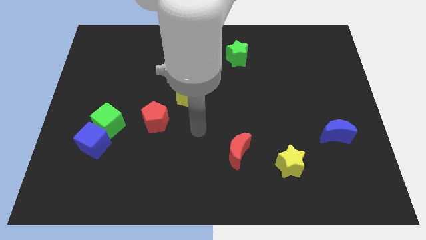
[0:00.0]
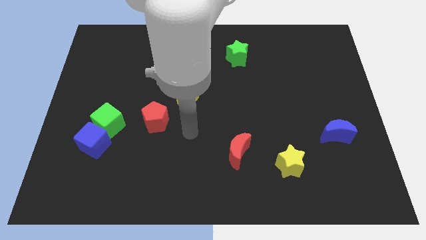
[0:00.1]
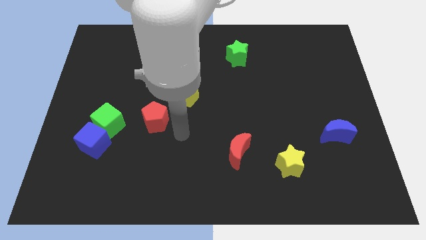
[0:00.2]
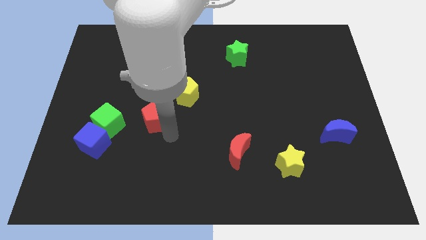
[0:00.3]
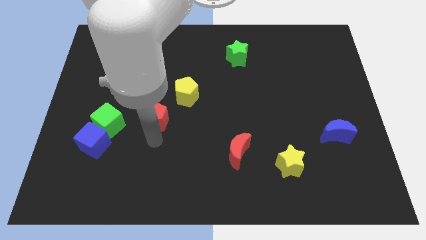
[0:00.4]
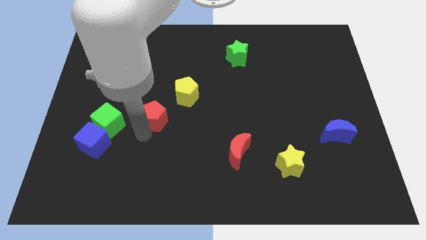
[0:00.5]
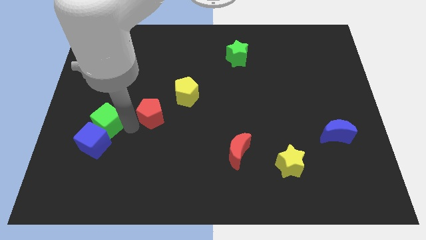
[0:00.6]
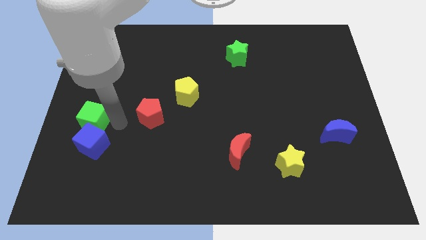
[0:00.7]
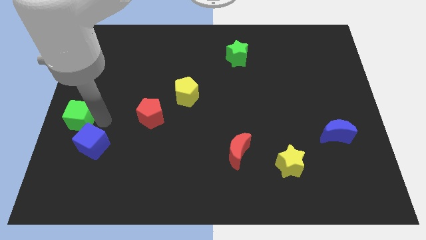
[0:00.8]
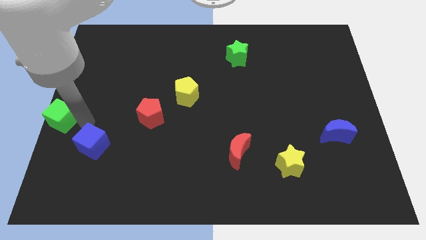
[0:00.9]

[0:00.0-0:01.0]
separate the blue cube from the green cube

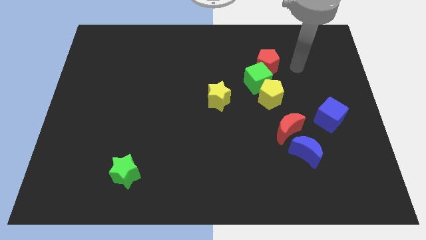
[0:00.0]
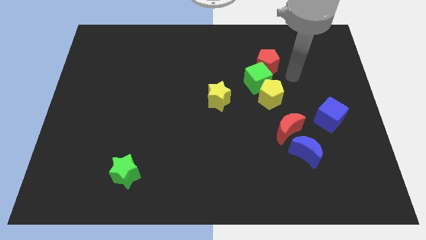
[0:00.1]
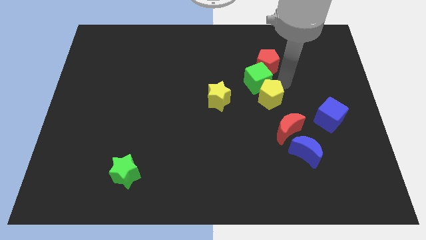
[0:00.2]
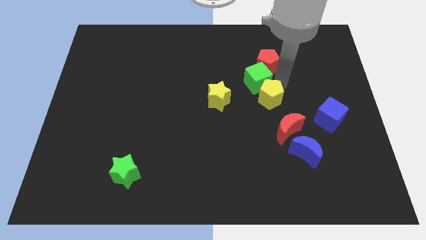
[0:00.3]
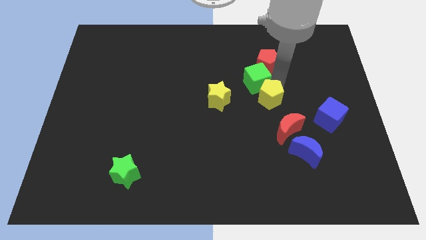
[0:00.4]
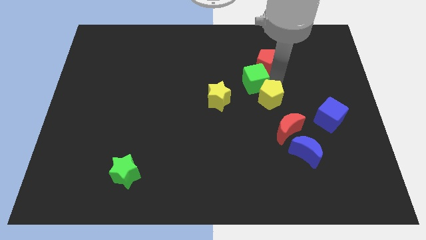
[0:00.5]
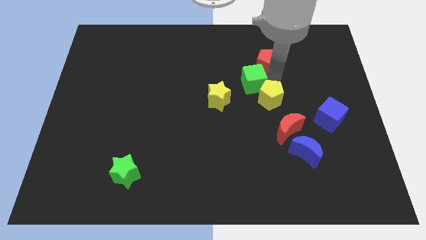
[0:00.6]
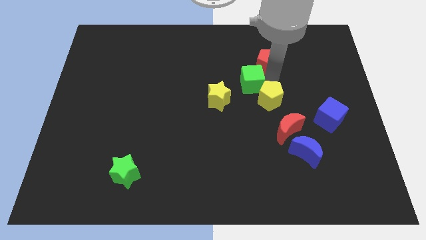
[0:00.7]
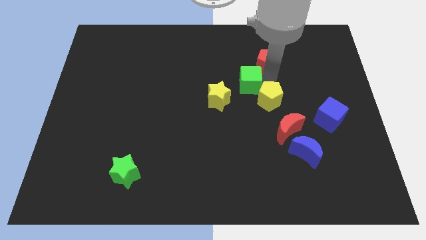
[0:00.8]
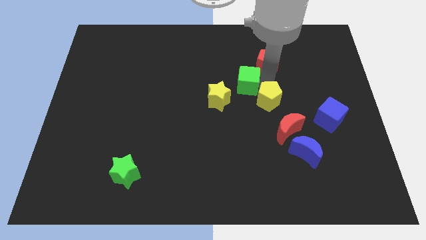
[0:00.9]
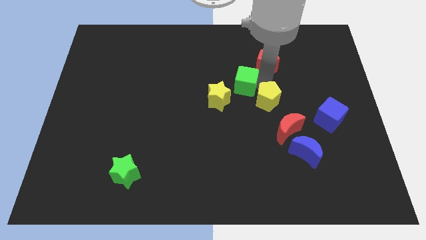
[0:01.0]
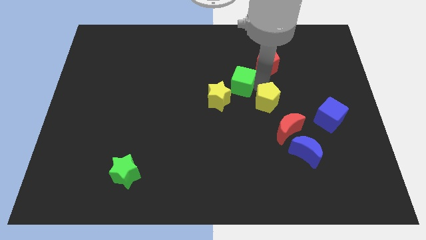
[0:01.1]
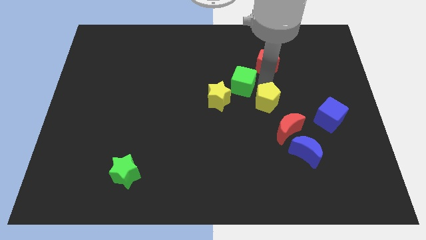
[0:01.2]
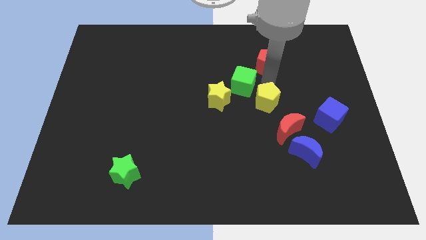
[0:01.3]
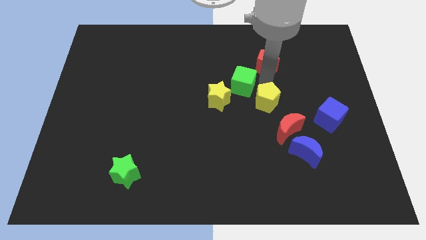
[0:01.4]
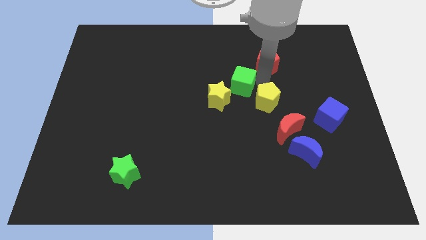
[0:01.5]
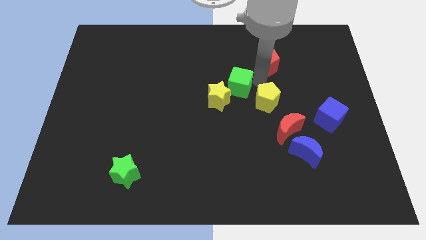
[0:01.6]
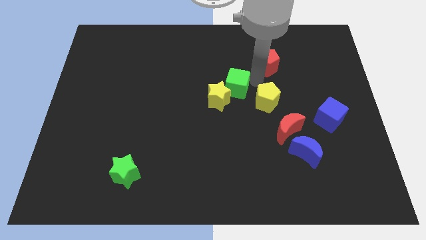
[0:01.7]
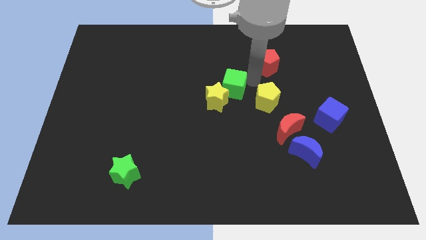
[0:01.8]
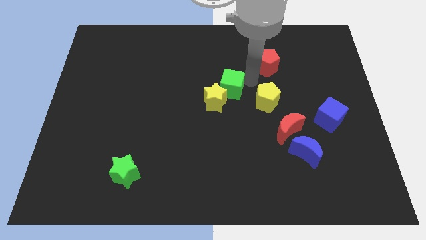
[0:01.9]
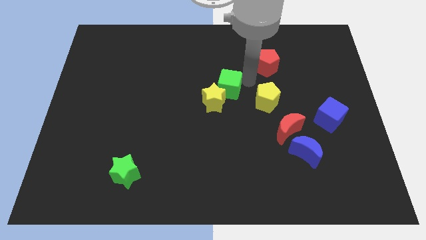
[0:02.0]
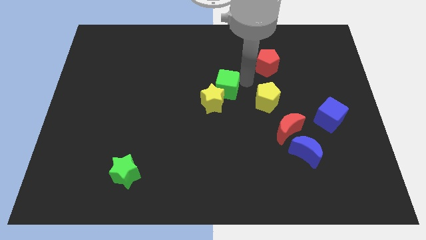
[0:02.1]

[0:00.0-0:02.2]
move the green cube away from the yellow pentagon and red pentagon

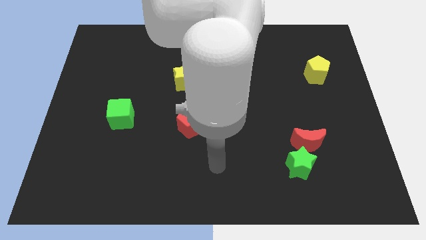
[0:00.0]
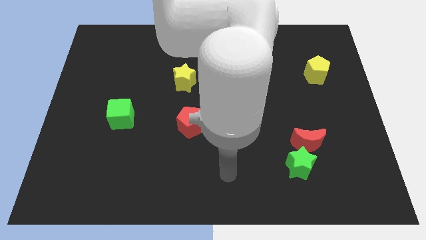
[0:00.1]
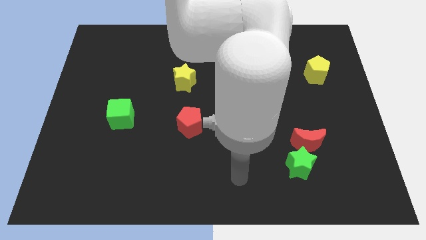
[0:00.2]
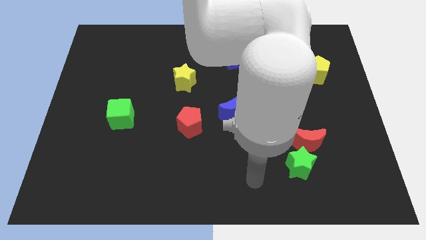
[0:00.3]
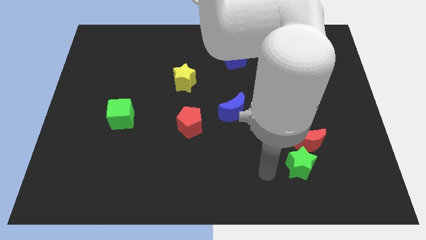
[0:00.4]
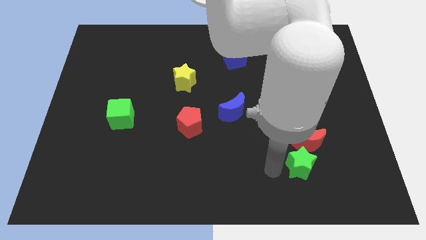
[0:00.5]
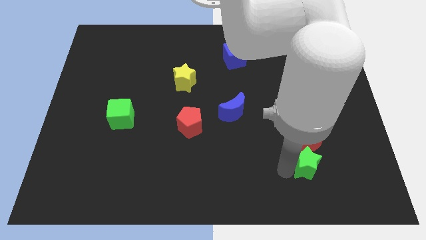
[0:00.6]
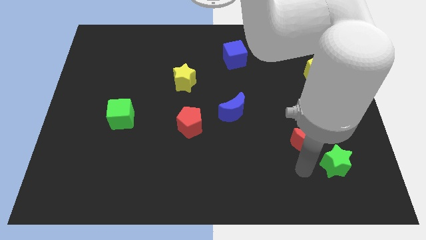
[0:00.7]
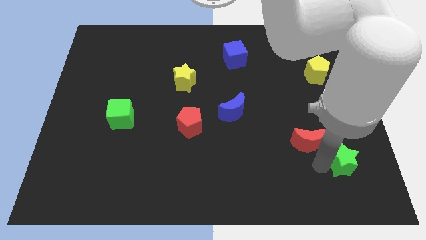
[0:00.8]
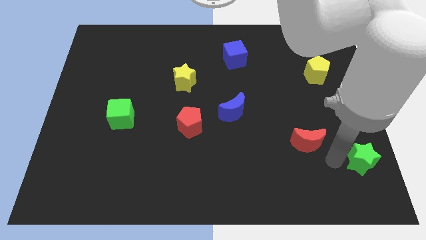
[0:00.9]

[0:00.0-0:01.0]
move the red moon away from the green star

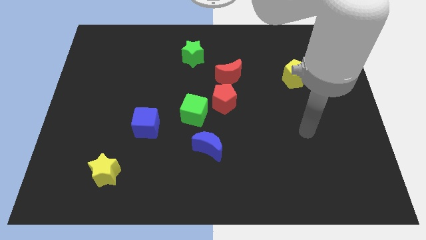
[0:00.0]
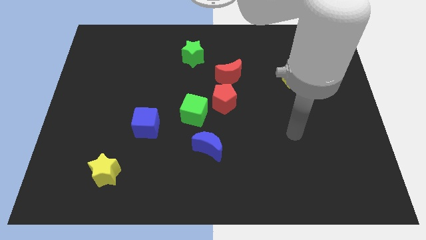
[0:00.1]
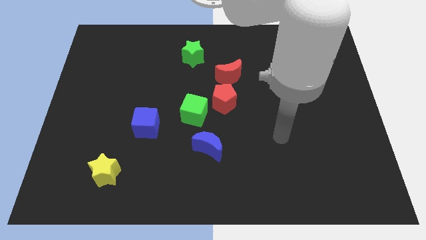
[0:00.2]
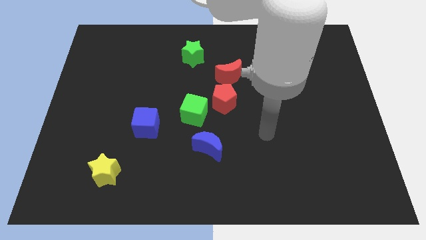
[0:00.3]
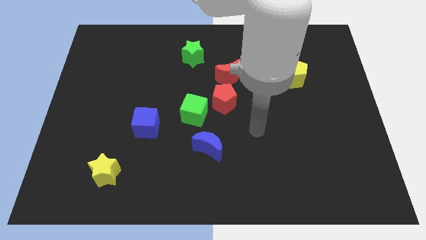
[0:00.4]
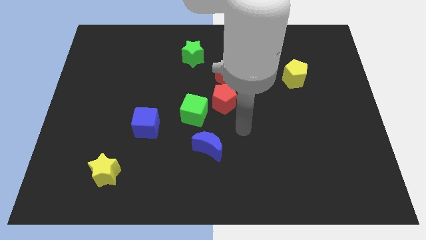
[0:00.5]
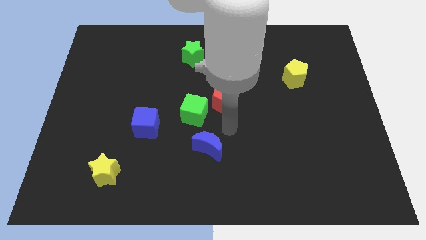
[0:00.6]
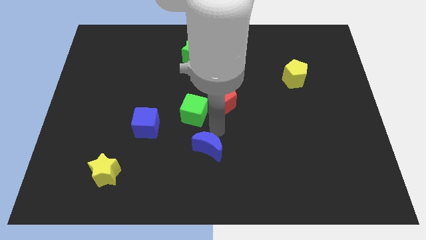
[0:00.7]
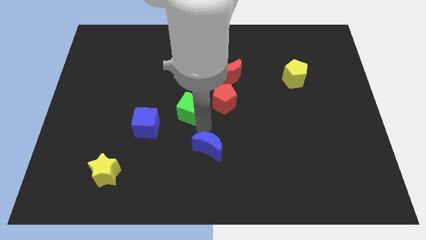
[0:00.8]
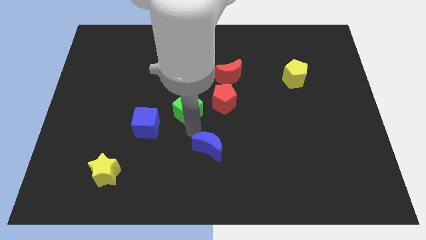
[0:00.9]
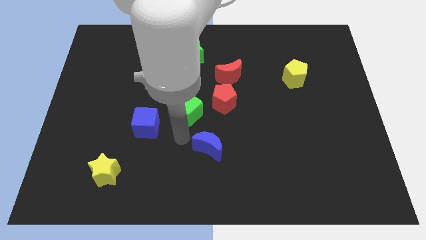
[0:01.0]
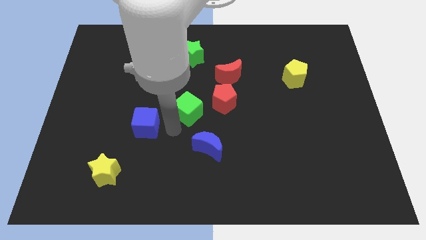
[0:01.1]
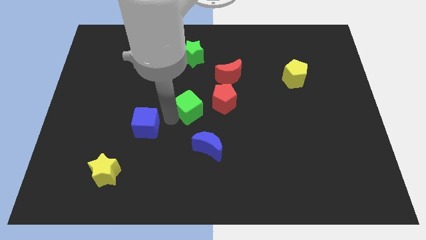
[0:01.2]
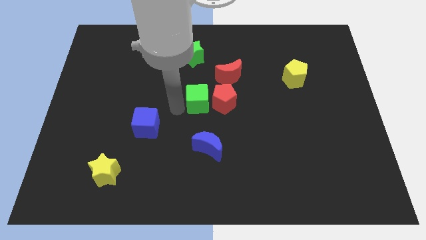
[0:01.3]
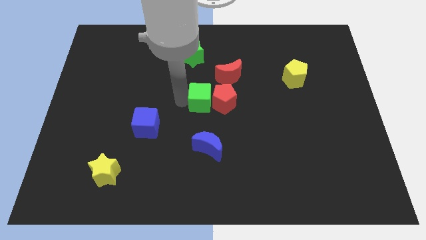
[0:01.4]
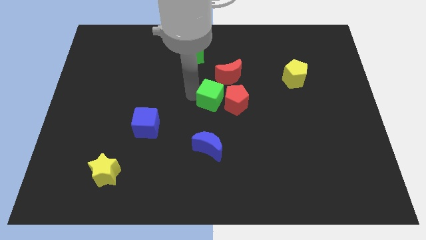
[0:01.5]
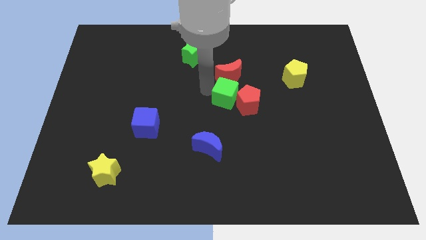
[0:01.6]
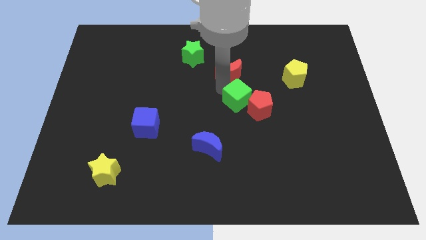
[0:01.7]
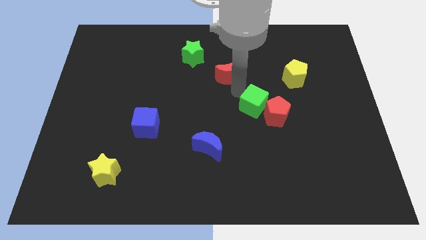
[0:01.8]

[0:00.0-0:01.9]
separate the red pentagon from the green cube and red moon

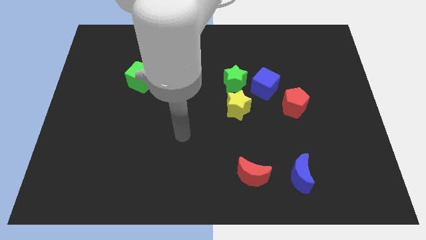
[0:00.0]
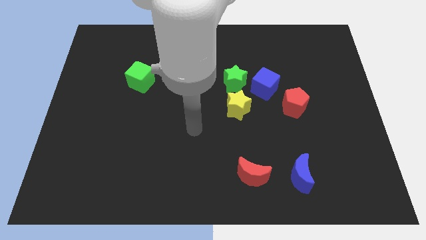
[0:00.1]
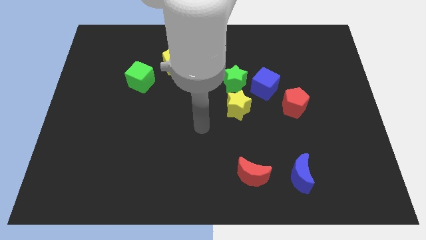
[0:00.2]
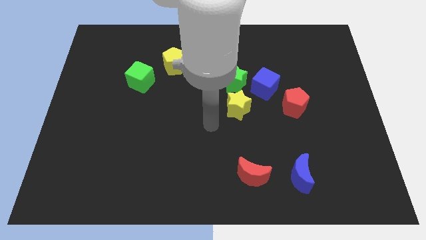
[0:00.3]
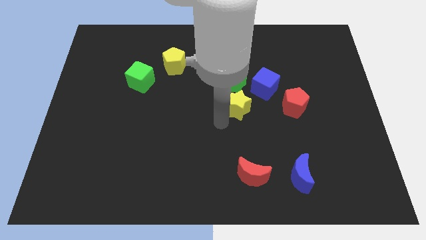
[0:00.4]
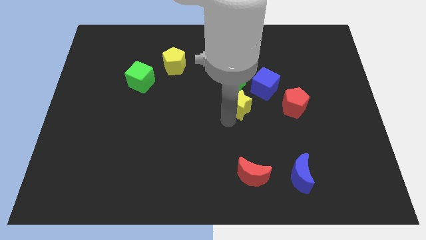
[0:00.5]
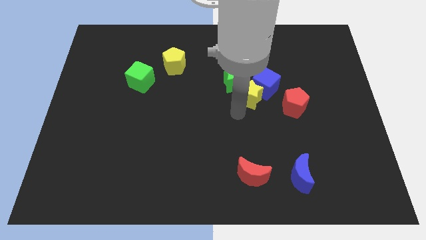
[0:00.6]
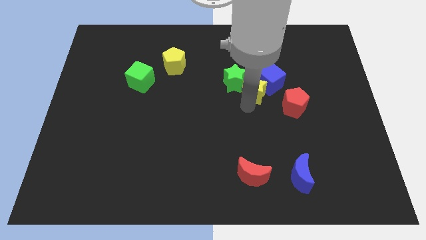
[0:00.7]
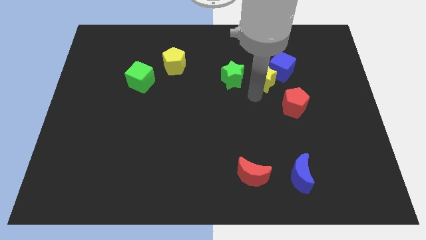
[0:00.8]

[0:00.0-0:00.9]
pull the green star apart from the blue cube and yellow star

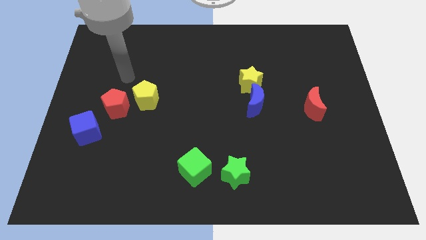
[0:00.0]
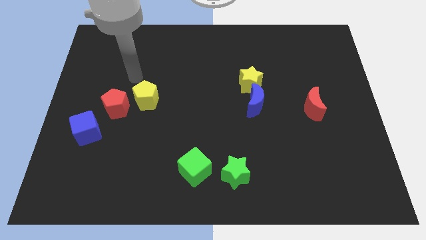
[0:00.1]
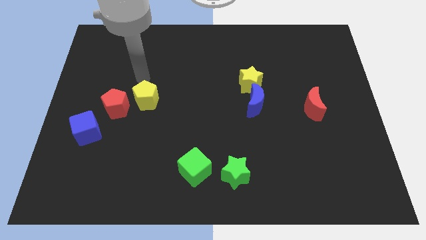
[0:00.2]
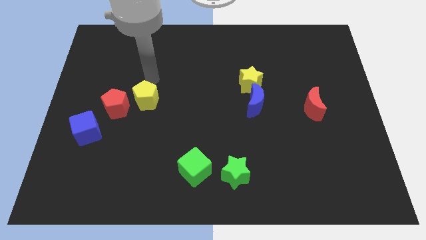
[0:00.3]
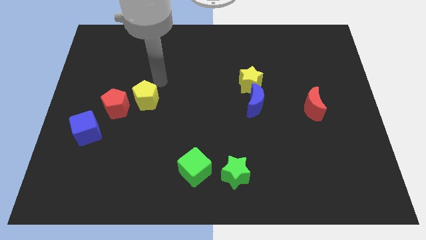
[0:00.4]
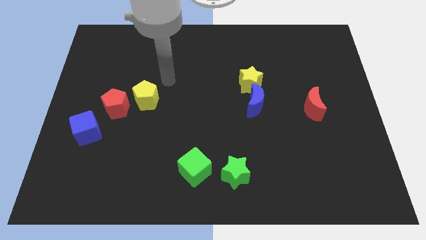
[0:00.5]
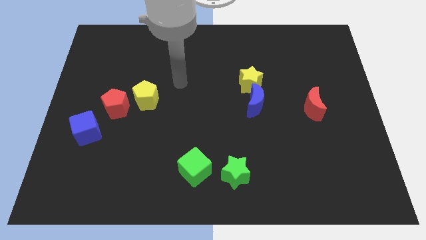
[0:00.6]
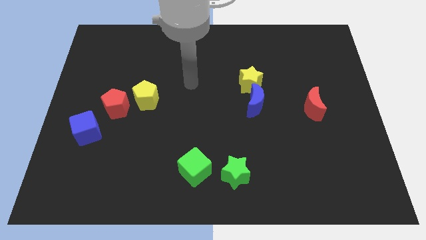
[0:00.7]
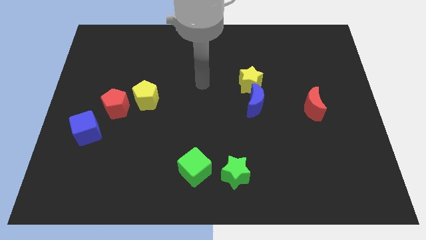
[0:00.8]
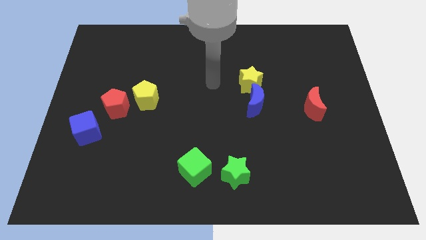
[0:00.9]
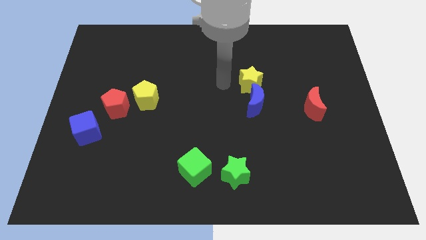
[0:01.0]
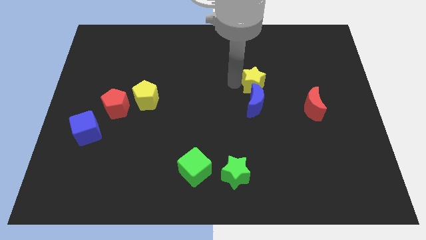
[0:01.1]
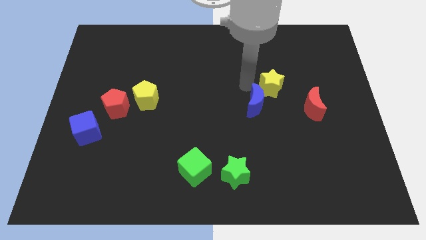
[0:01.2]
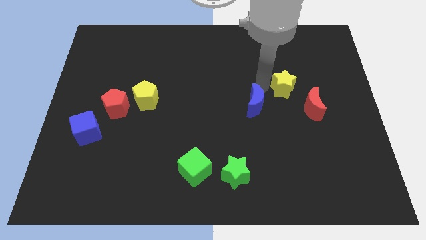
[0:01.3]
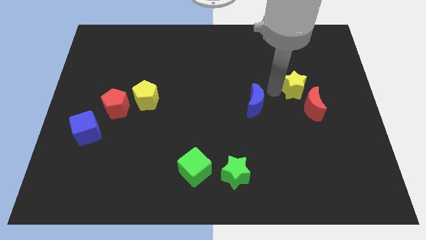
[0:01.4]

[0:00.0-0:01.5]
pull the blue moon apart from the yellow star

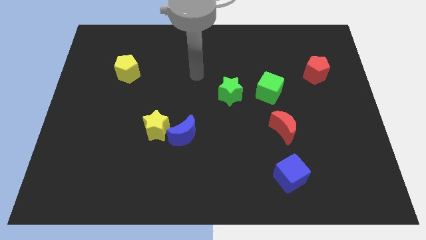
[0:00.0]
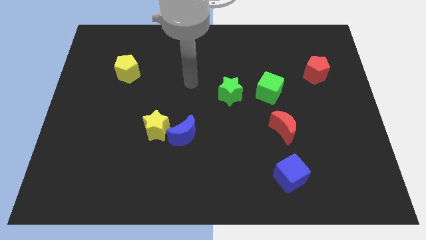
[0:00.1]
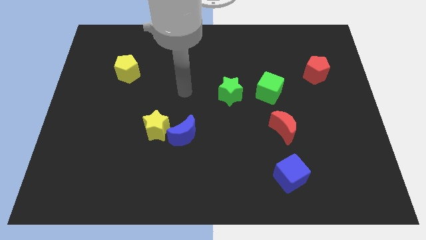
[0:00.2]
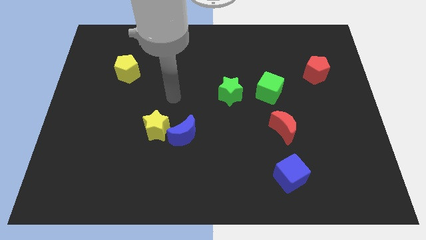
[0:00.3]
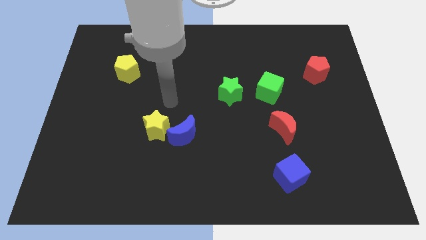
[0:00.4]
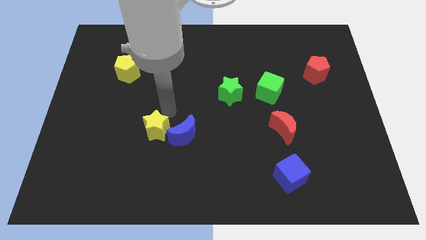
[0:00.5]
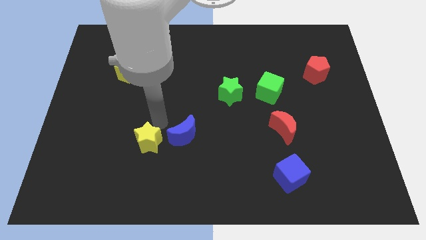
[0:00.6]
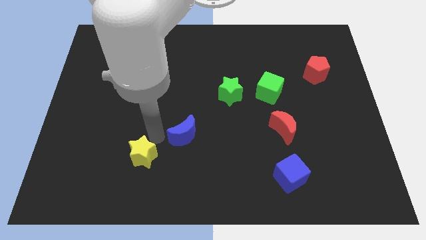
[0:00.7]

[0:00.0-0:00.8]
separate the blue moon from the yellow star
